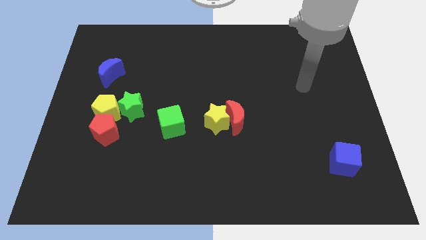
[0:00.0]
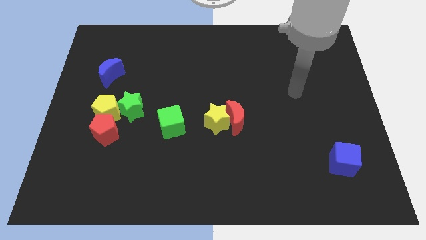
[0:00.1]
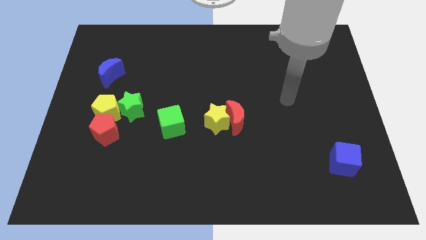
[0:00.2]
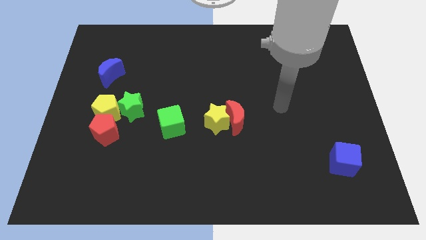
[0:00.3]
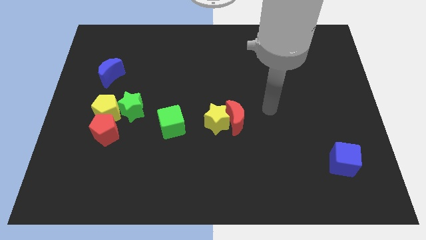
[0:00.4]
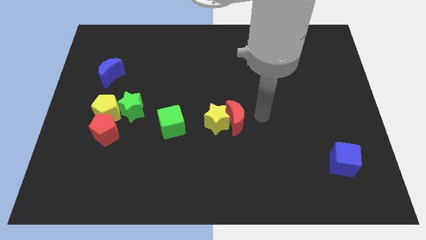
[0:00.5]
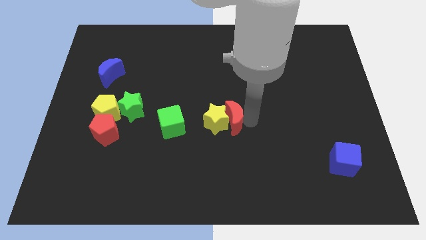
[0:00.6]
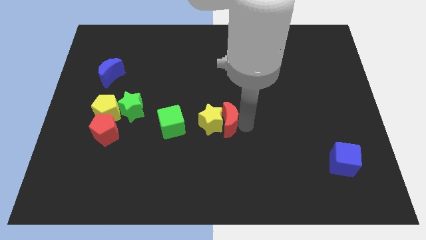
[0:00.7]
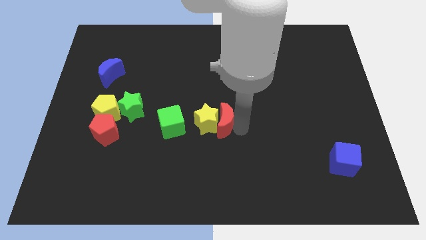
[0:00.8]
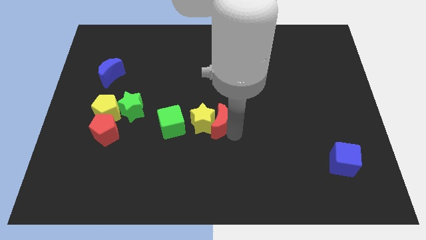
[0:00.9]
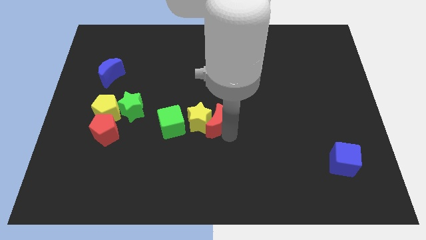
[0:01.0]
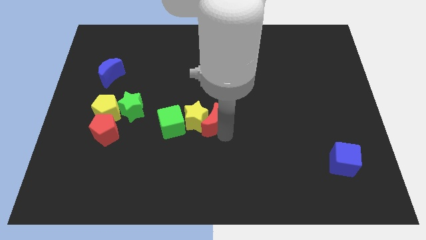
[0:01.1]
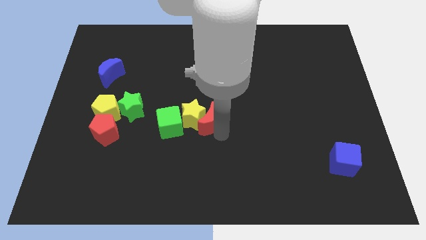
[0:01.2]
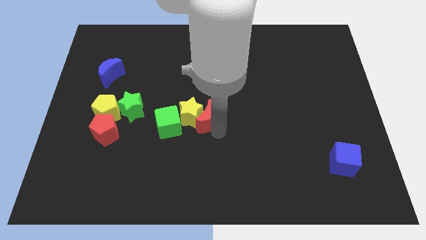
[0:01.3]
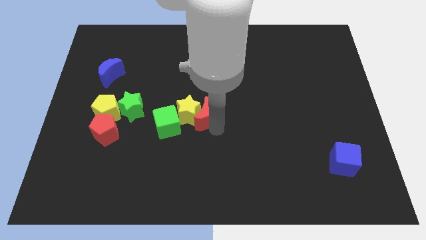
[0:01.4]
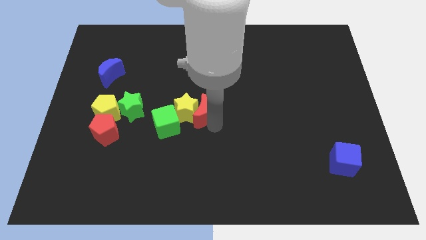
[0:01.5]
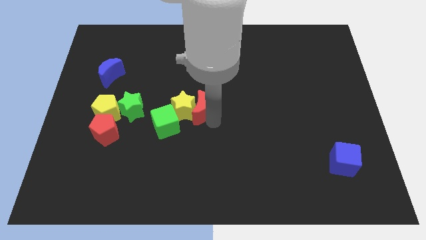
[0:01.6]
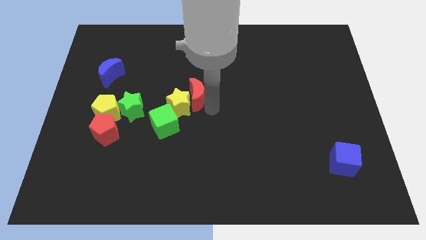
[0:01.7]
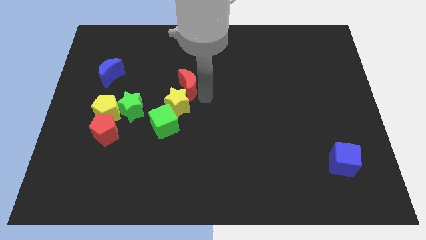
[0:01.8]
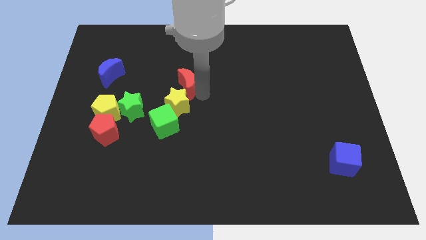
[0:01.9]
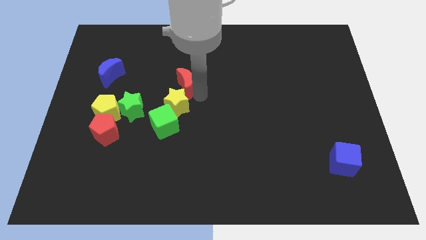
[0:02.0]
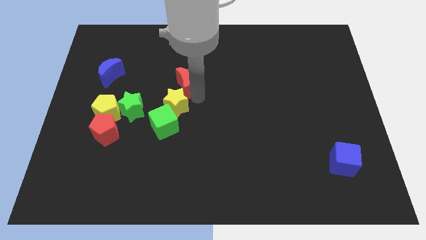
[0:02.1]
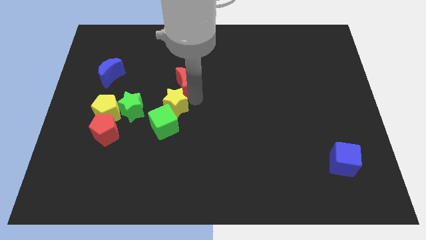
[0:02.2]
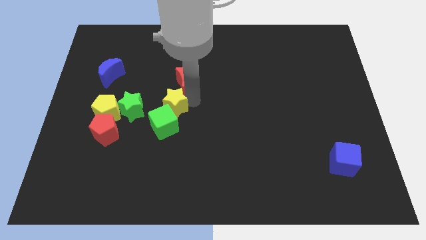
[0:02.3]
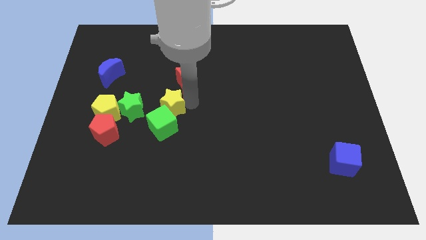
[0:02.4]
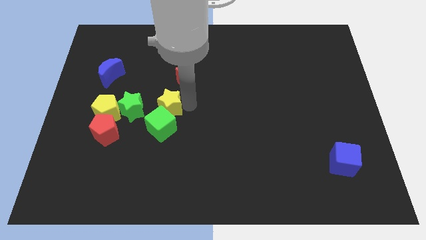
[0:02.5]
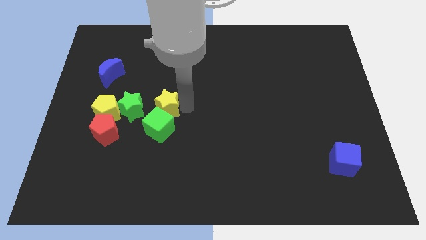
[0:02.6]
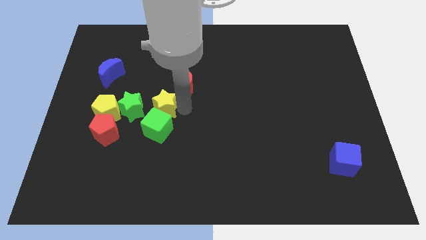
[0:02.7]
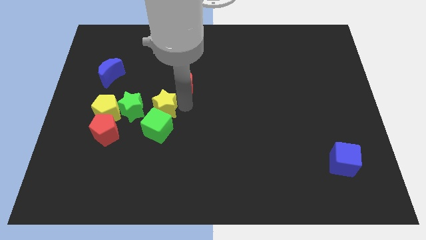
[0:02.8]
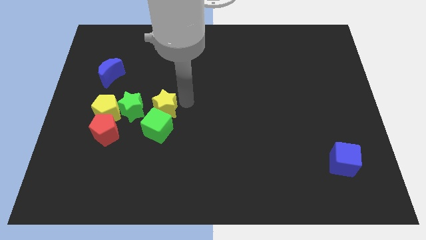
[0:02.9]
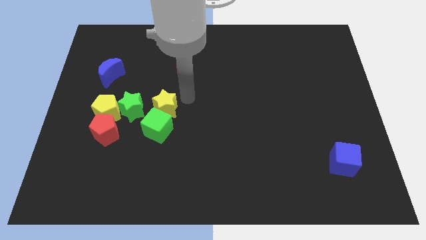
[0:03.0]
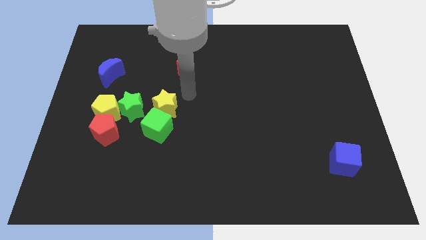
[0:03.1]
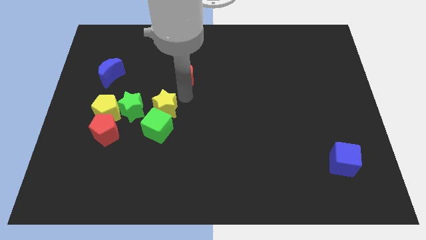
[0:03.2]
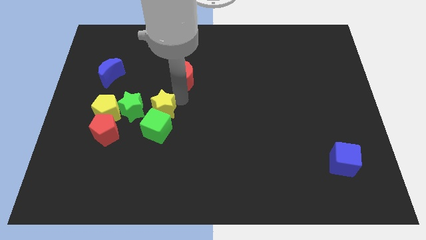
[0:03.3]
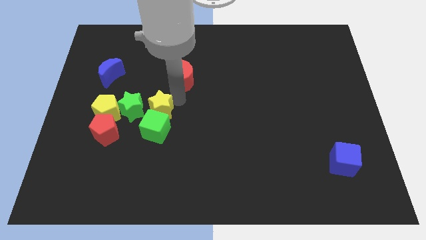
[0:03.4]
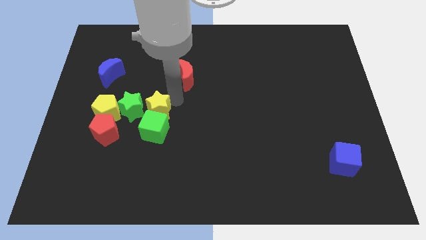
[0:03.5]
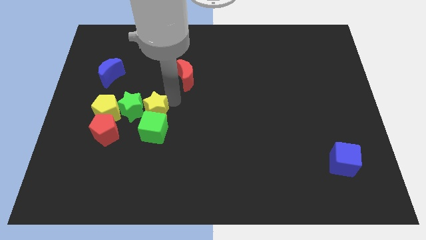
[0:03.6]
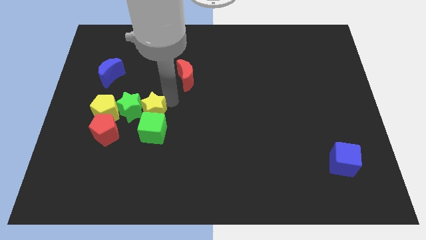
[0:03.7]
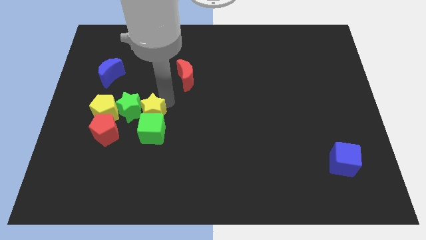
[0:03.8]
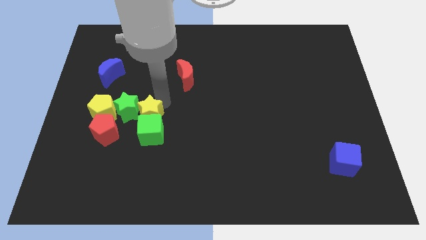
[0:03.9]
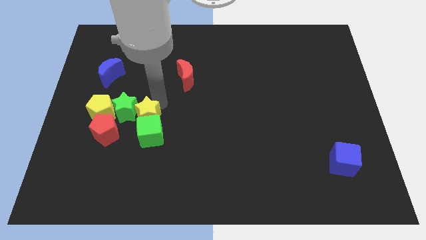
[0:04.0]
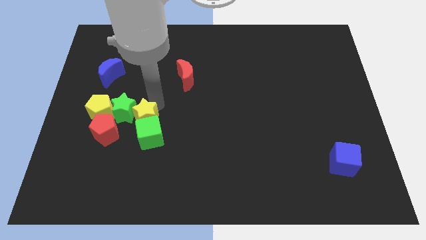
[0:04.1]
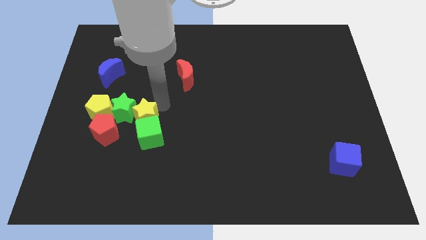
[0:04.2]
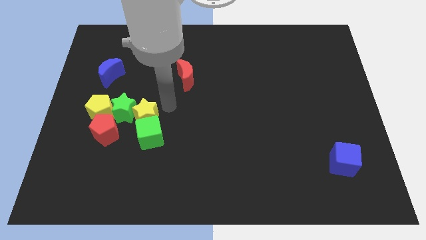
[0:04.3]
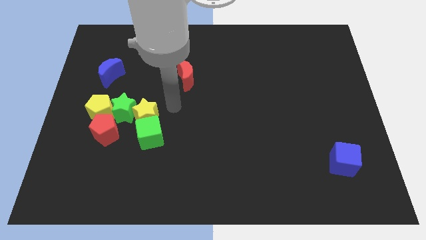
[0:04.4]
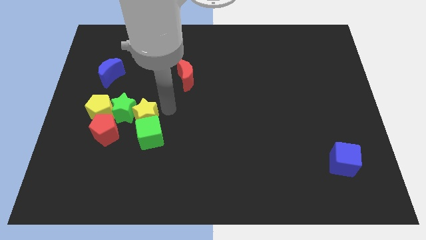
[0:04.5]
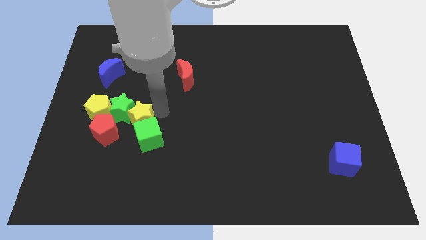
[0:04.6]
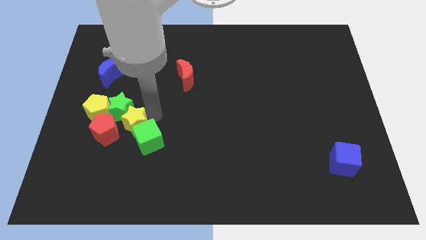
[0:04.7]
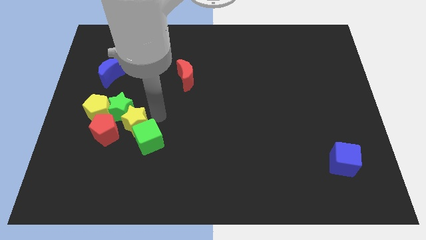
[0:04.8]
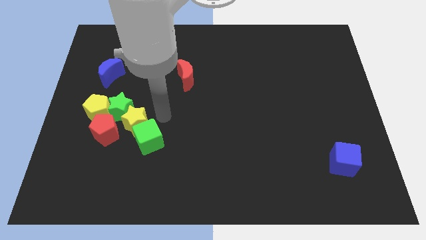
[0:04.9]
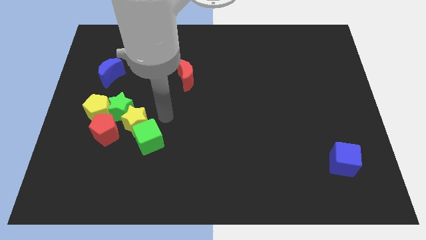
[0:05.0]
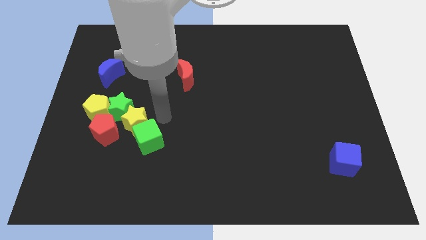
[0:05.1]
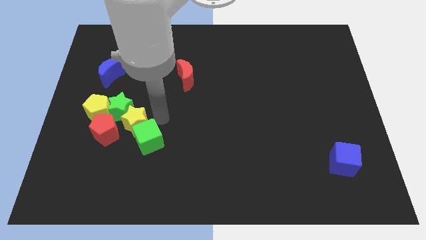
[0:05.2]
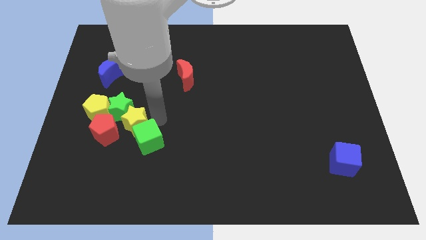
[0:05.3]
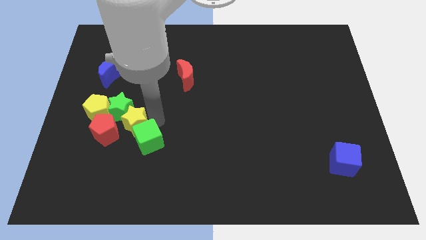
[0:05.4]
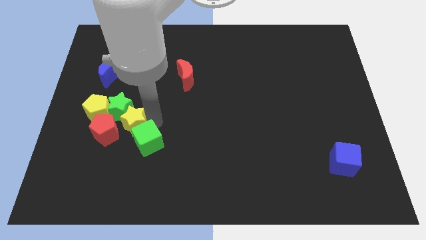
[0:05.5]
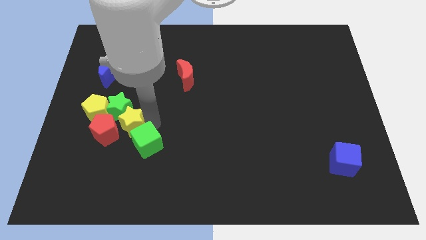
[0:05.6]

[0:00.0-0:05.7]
push the yellow star close to the red pentagon

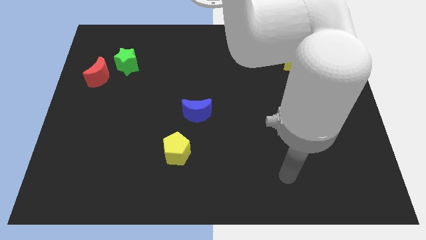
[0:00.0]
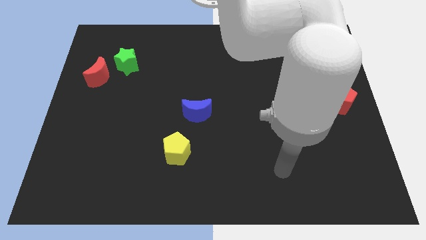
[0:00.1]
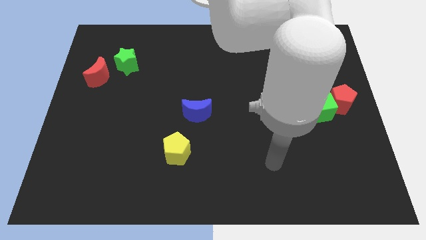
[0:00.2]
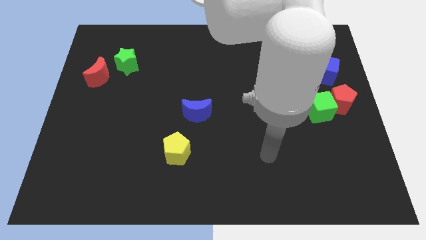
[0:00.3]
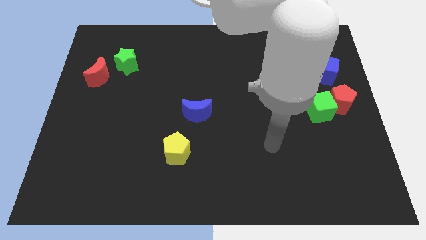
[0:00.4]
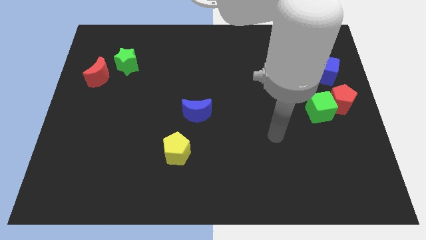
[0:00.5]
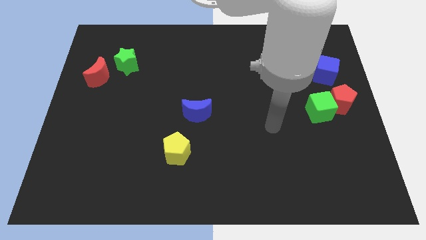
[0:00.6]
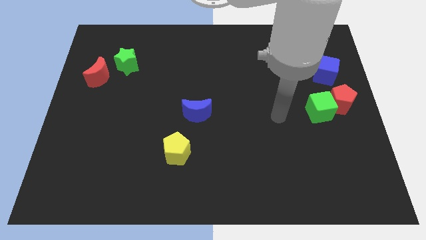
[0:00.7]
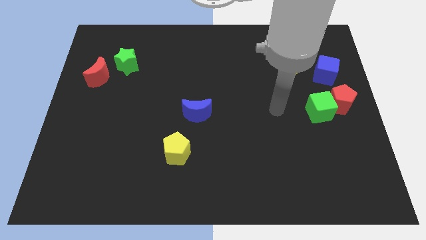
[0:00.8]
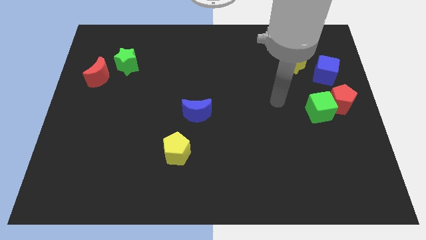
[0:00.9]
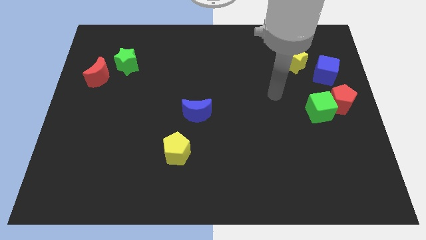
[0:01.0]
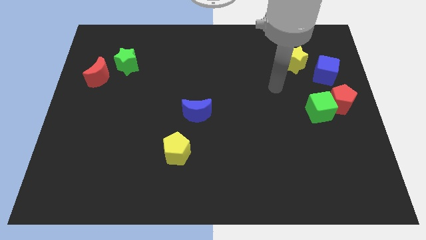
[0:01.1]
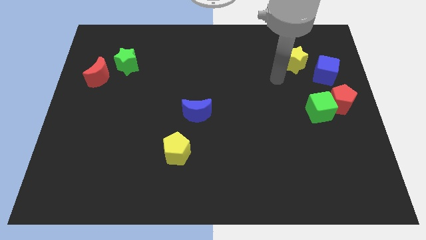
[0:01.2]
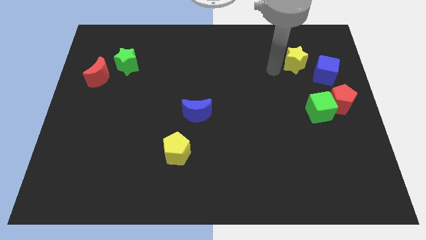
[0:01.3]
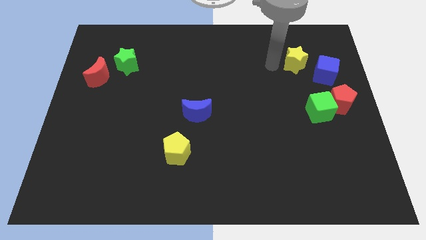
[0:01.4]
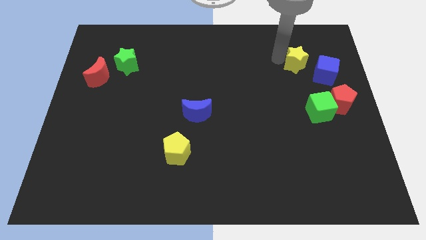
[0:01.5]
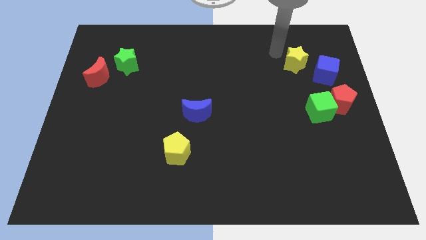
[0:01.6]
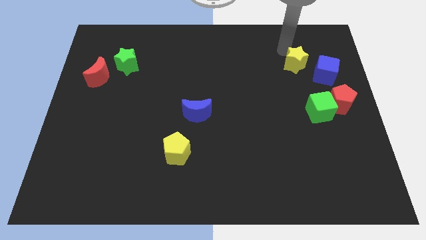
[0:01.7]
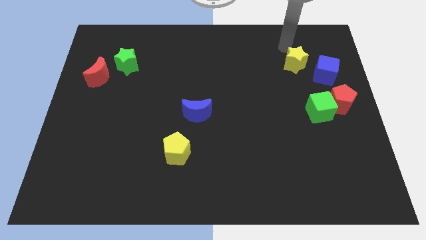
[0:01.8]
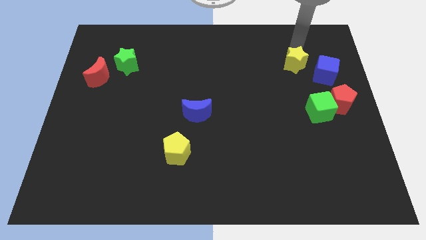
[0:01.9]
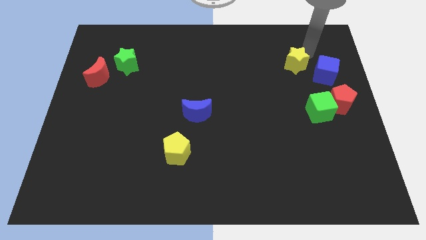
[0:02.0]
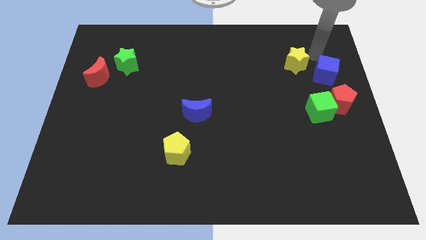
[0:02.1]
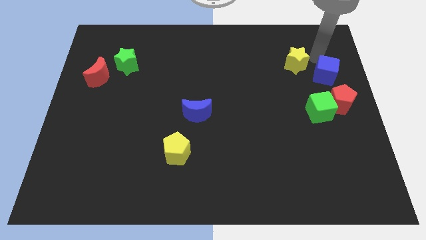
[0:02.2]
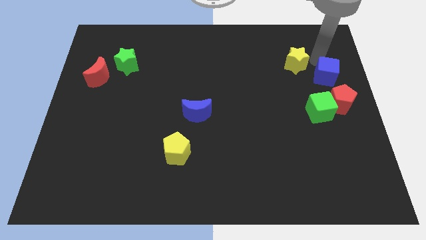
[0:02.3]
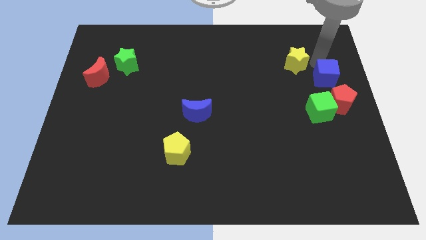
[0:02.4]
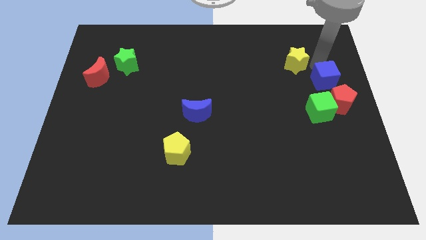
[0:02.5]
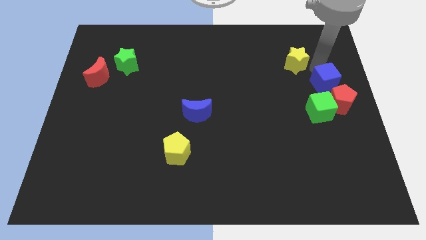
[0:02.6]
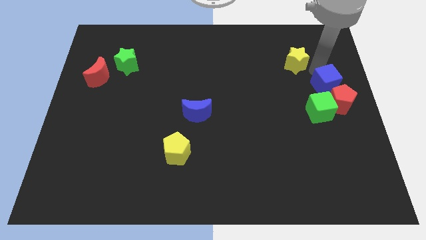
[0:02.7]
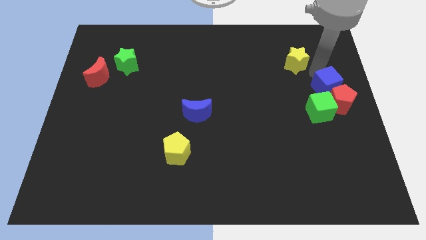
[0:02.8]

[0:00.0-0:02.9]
move the blue cube next to the red pentagon
